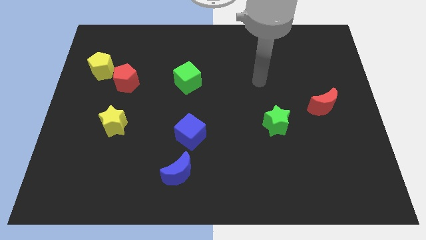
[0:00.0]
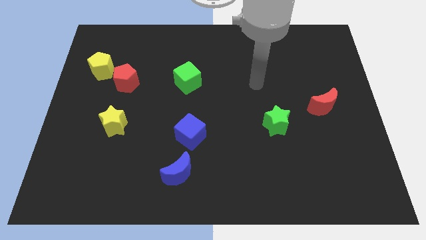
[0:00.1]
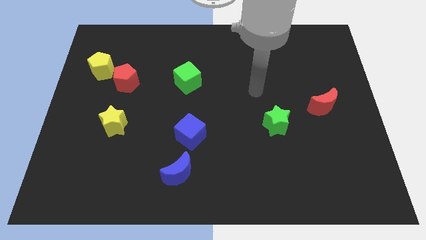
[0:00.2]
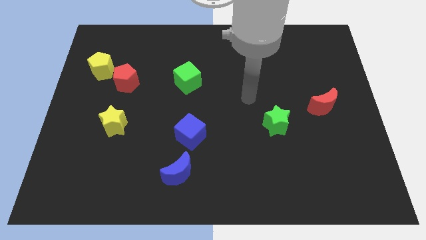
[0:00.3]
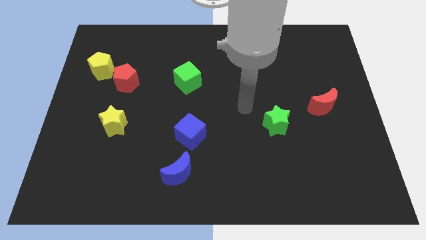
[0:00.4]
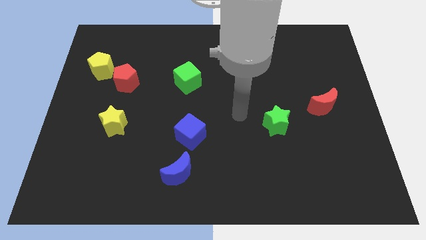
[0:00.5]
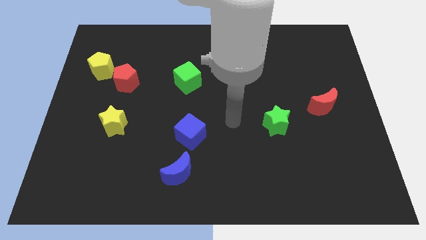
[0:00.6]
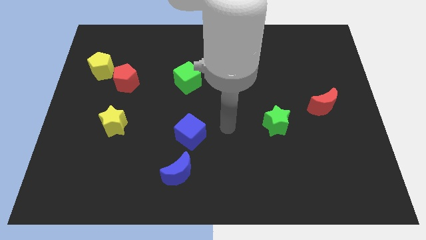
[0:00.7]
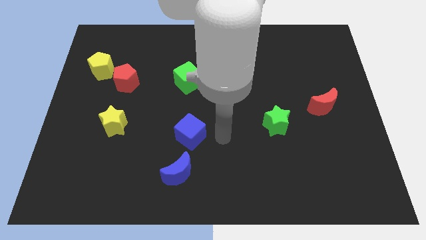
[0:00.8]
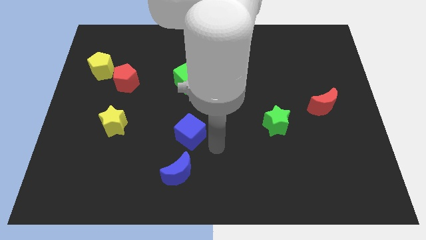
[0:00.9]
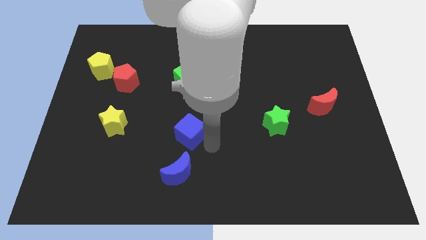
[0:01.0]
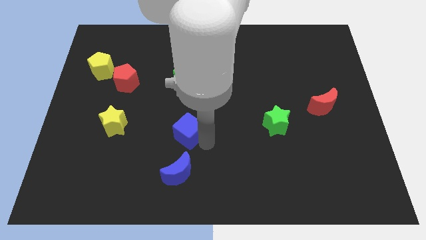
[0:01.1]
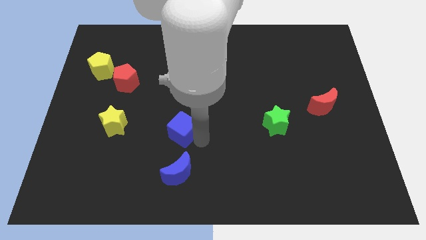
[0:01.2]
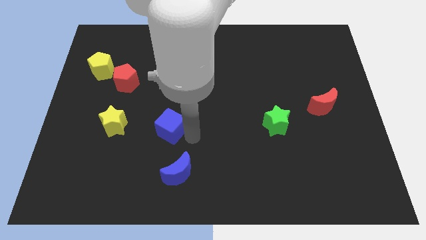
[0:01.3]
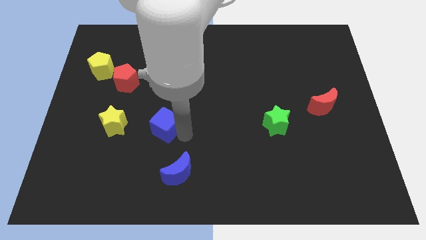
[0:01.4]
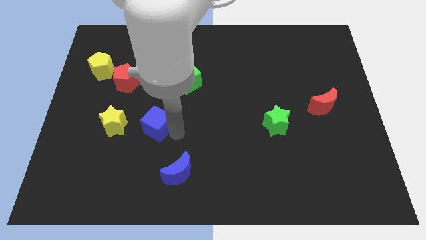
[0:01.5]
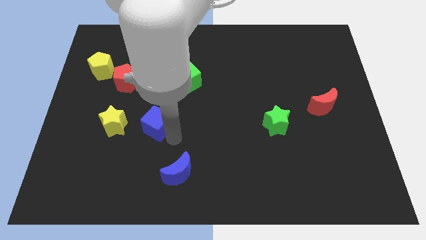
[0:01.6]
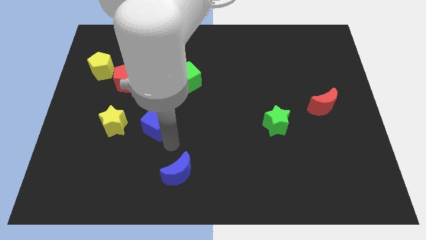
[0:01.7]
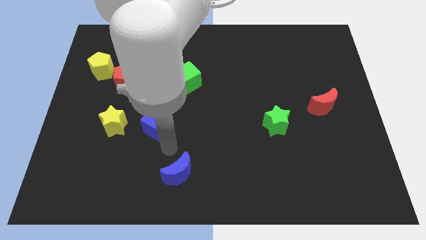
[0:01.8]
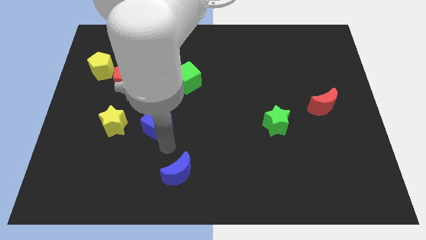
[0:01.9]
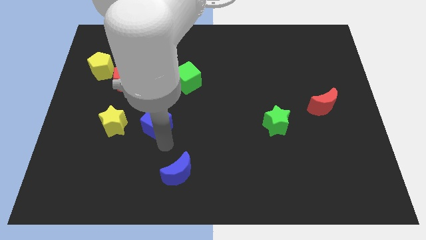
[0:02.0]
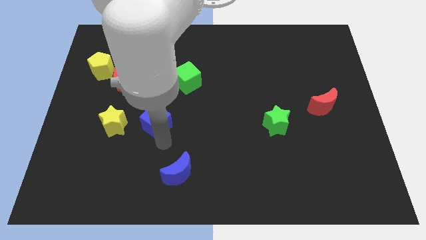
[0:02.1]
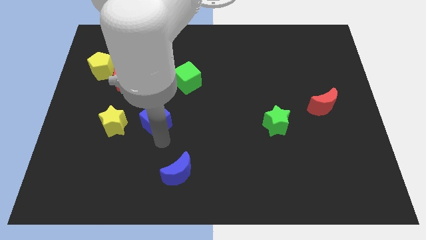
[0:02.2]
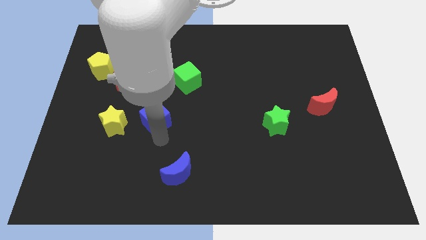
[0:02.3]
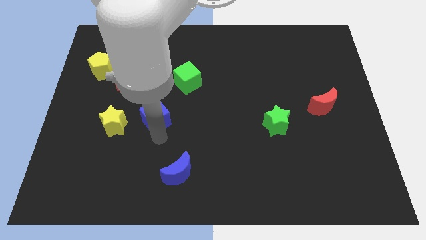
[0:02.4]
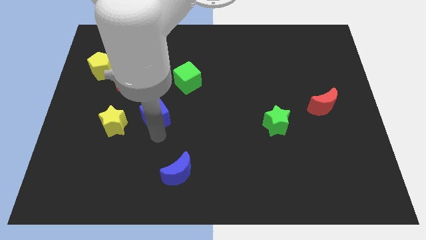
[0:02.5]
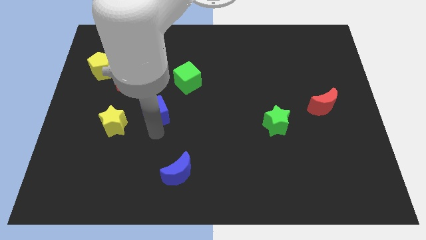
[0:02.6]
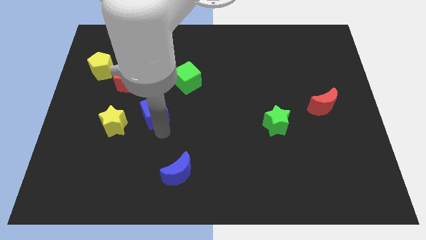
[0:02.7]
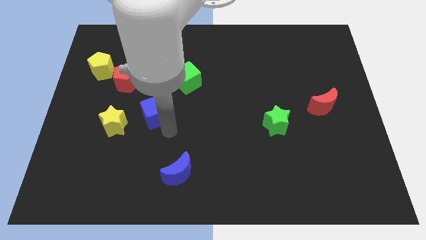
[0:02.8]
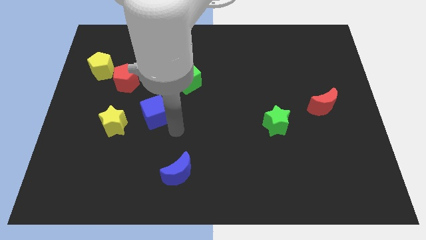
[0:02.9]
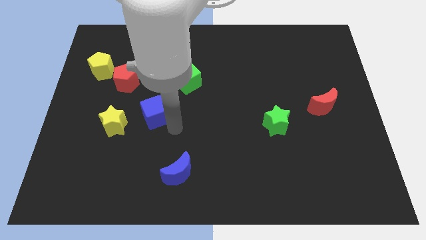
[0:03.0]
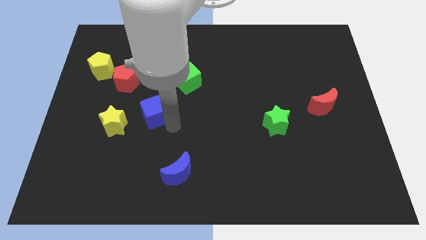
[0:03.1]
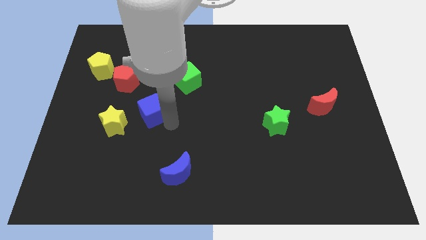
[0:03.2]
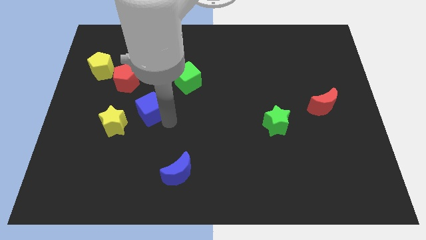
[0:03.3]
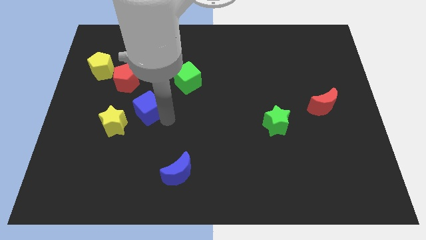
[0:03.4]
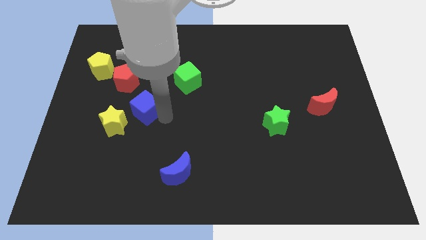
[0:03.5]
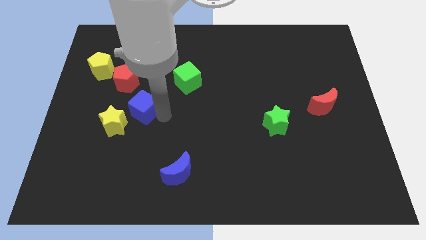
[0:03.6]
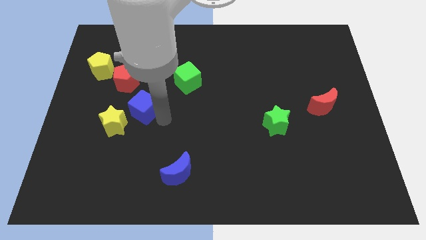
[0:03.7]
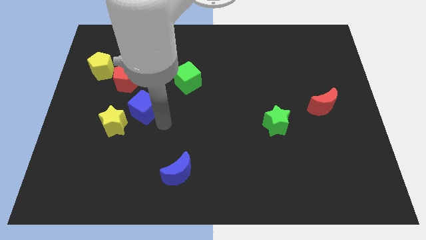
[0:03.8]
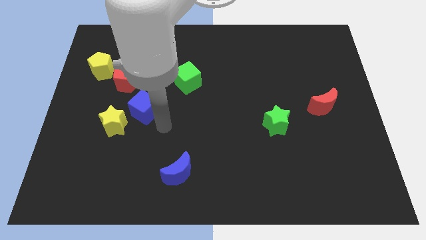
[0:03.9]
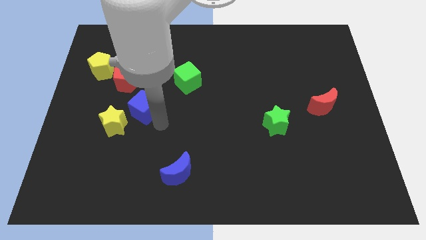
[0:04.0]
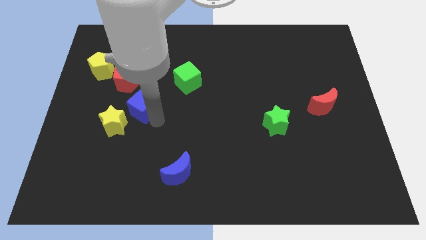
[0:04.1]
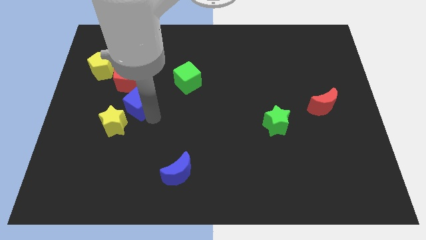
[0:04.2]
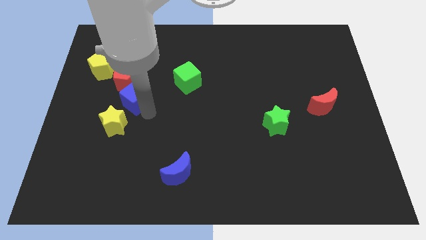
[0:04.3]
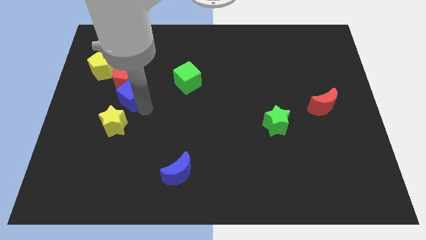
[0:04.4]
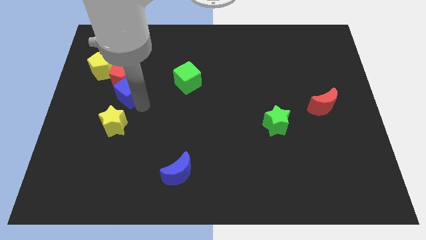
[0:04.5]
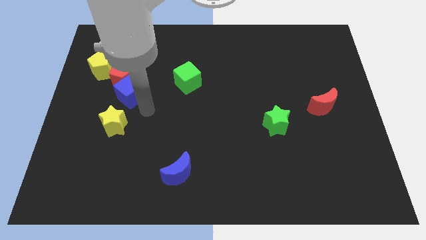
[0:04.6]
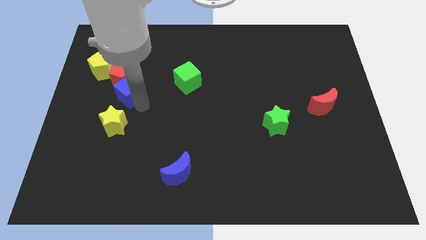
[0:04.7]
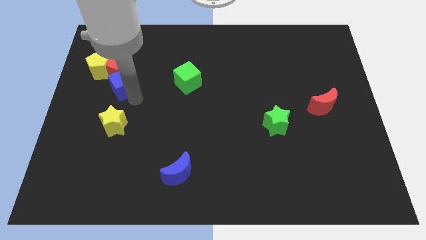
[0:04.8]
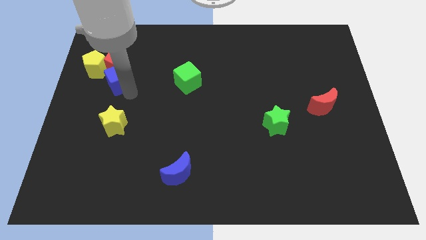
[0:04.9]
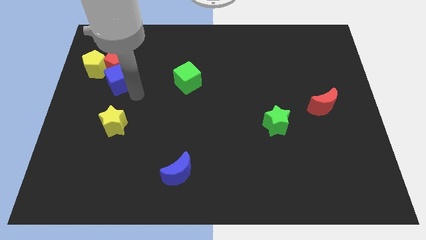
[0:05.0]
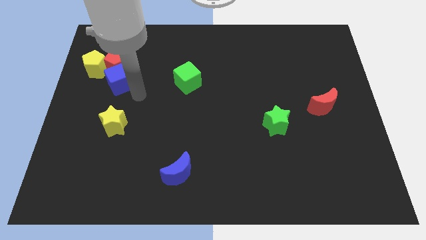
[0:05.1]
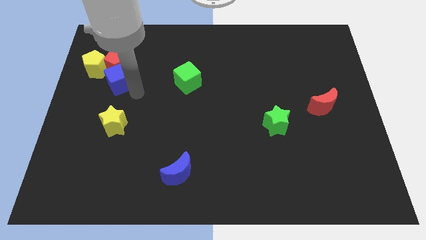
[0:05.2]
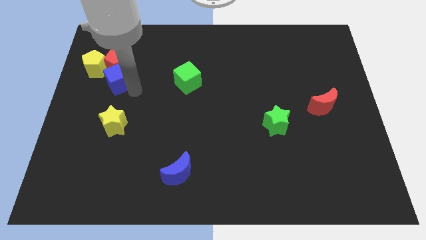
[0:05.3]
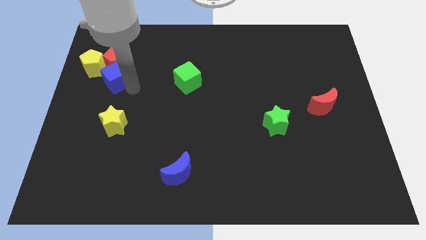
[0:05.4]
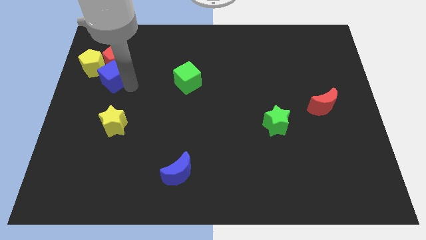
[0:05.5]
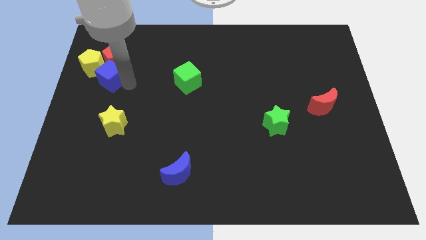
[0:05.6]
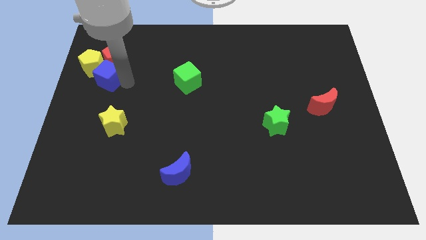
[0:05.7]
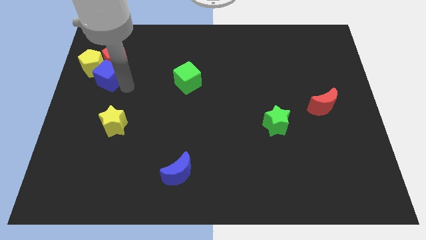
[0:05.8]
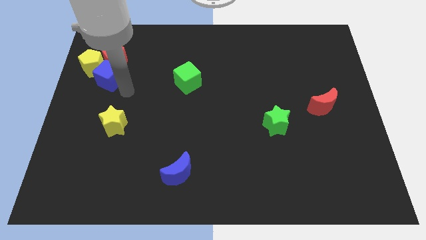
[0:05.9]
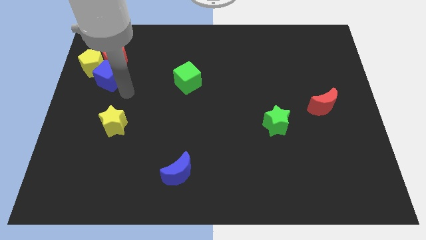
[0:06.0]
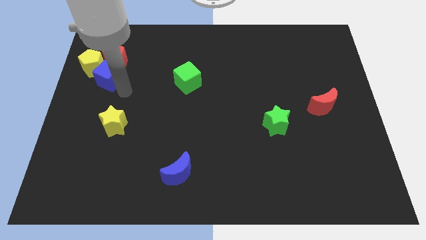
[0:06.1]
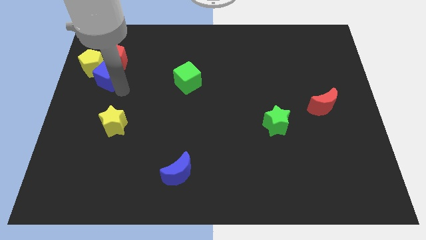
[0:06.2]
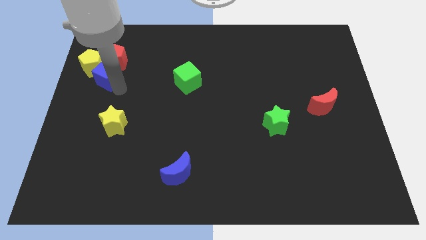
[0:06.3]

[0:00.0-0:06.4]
push the blue cube close to the yellow pentagon

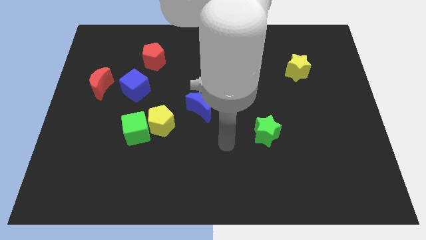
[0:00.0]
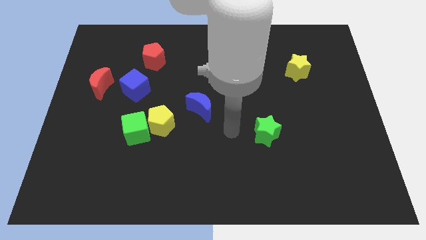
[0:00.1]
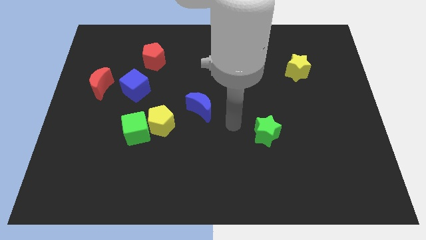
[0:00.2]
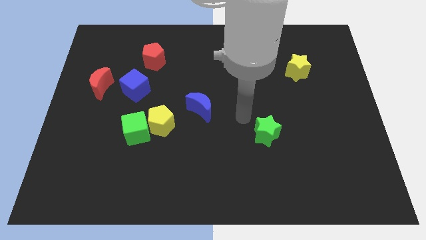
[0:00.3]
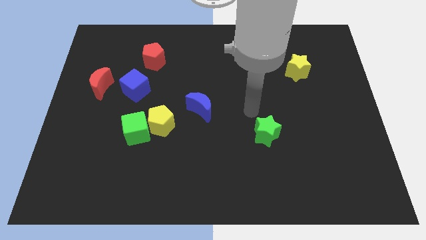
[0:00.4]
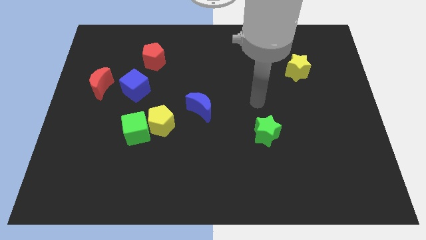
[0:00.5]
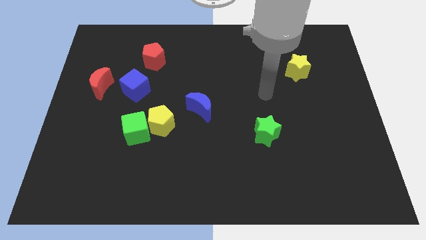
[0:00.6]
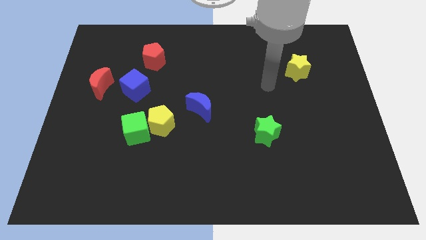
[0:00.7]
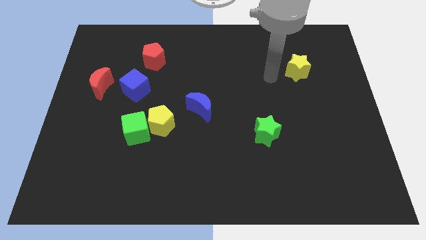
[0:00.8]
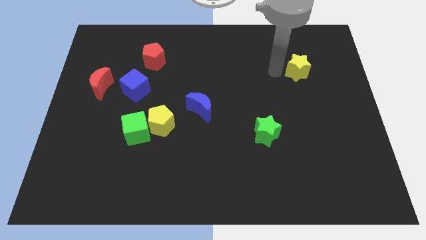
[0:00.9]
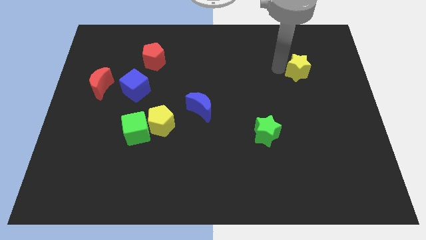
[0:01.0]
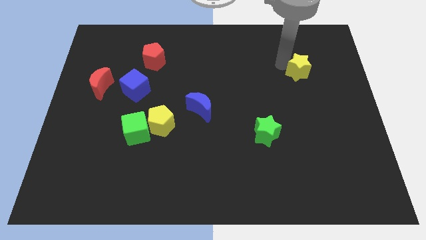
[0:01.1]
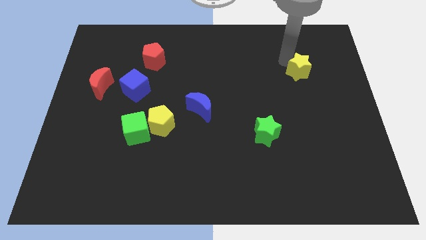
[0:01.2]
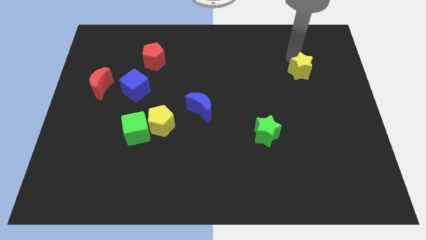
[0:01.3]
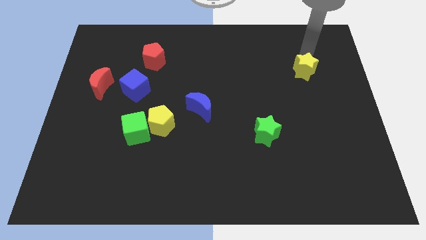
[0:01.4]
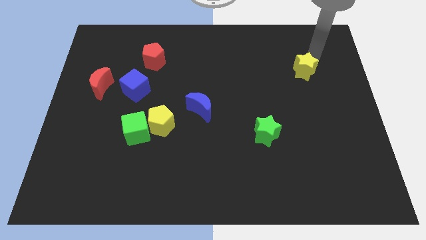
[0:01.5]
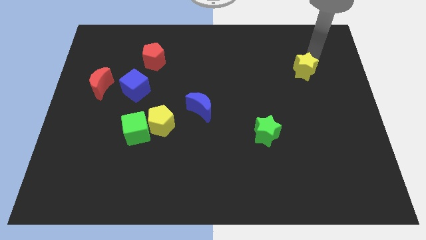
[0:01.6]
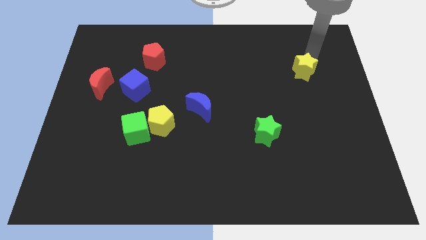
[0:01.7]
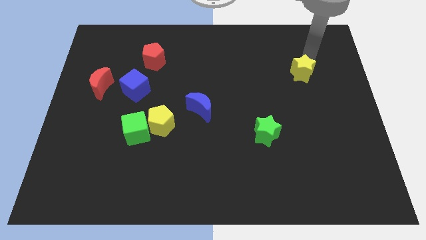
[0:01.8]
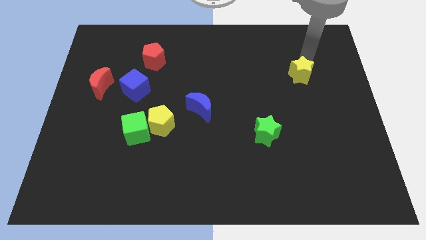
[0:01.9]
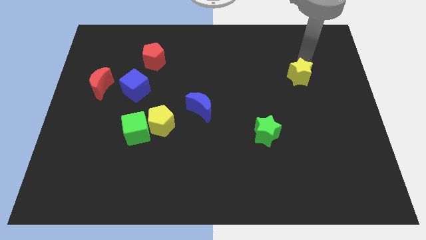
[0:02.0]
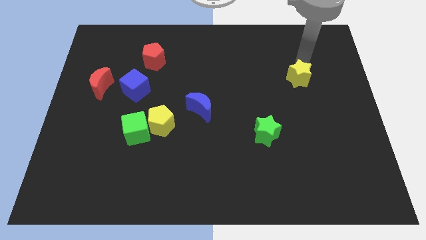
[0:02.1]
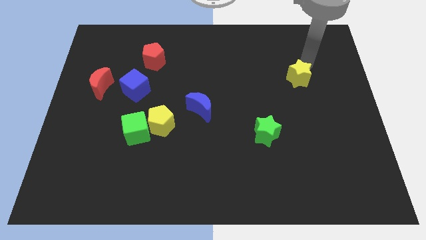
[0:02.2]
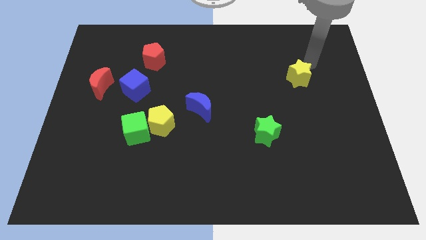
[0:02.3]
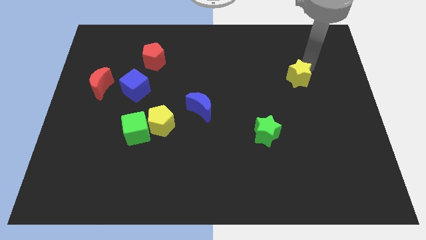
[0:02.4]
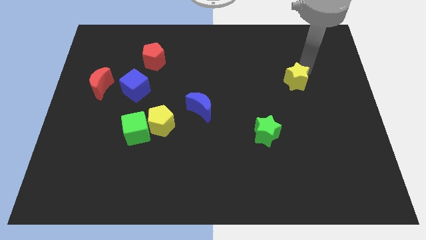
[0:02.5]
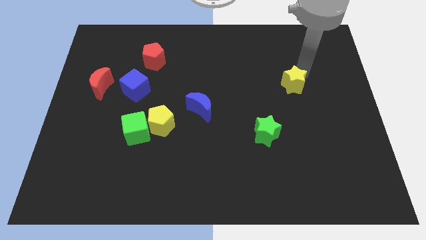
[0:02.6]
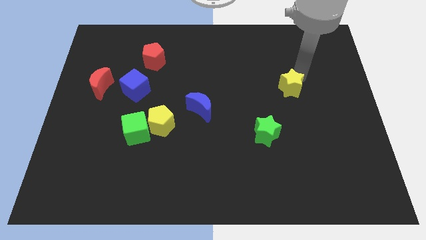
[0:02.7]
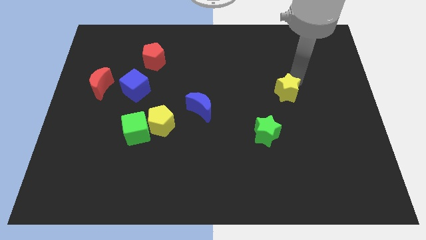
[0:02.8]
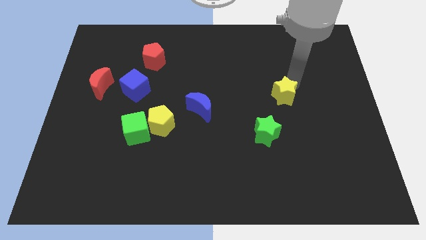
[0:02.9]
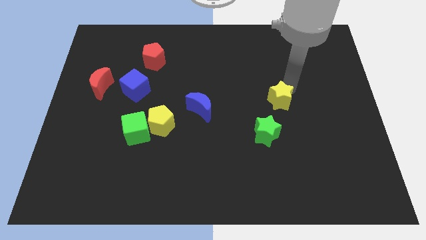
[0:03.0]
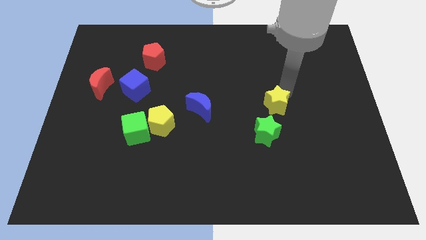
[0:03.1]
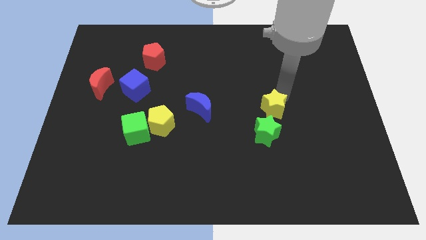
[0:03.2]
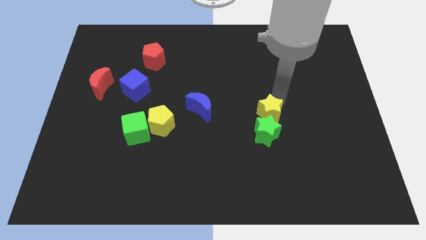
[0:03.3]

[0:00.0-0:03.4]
push the yellow star towards the green star
